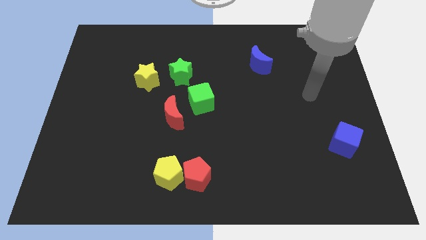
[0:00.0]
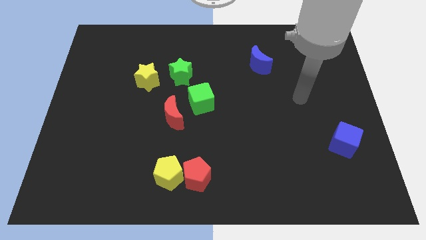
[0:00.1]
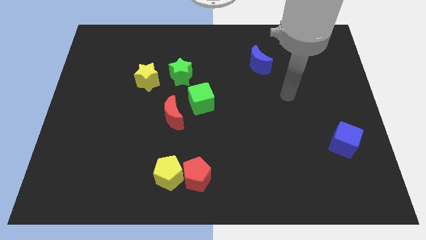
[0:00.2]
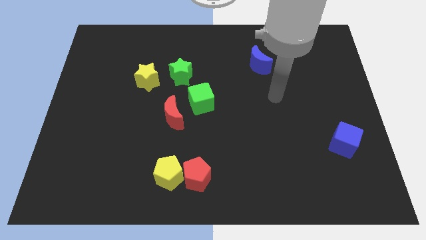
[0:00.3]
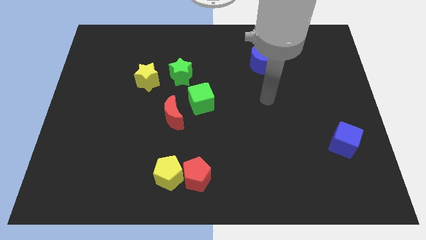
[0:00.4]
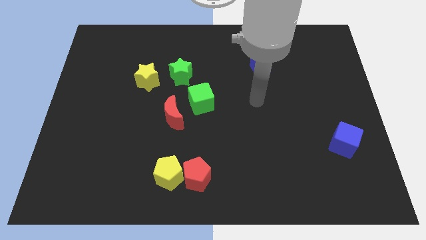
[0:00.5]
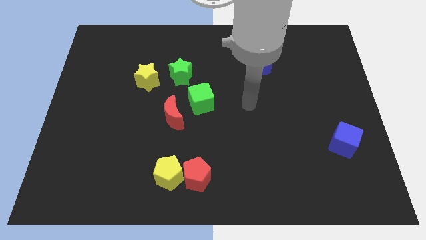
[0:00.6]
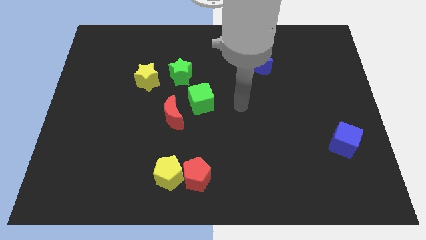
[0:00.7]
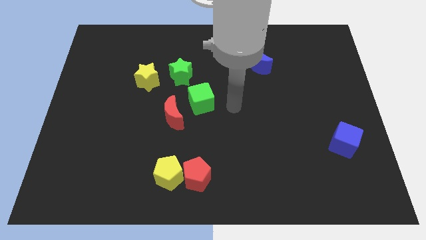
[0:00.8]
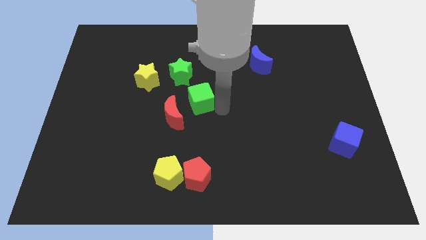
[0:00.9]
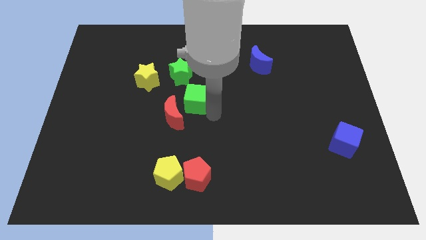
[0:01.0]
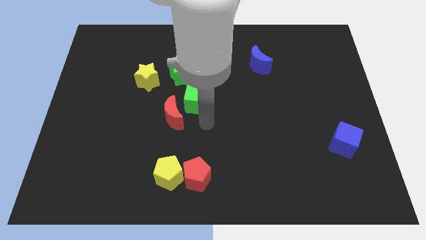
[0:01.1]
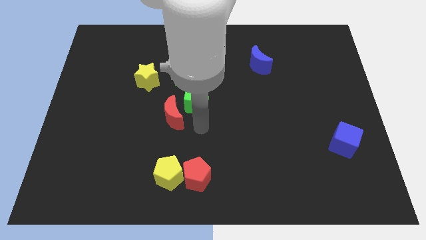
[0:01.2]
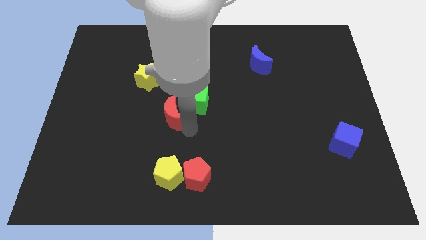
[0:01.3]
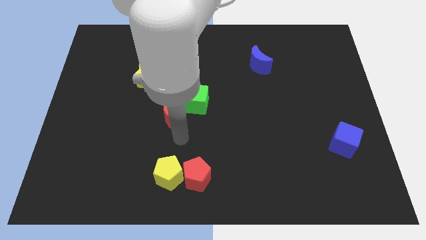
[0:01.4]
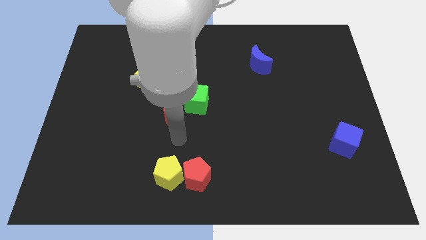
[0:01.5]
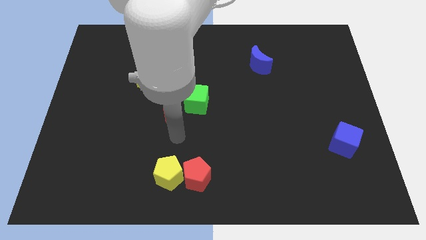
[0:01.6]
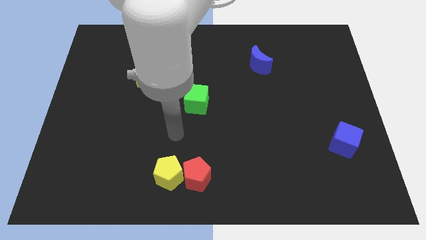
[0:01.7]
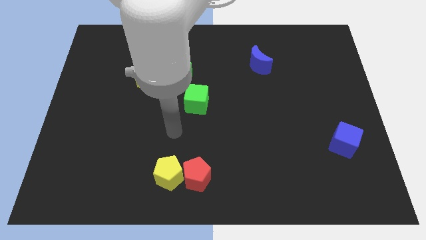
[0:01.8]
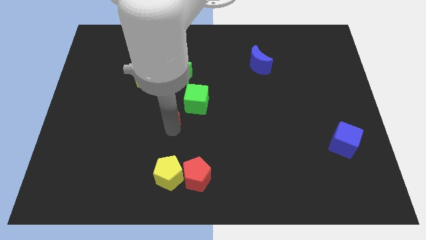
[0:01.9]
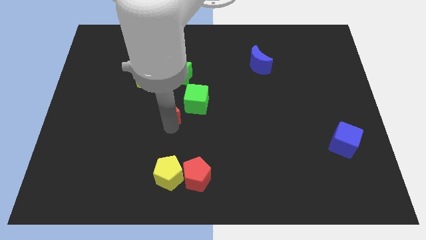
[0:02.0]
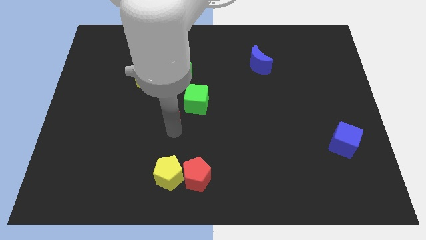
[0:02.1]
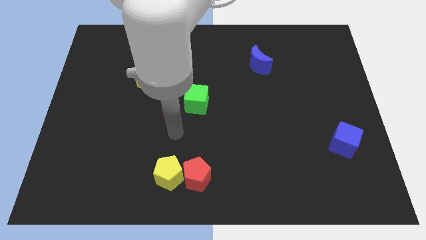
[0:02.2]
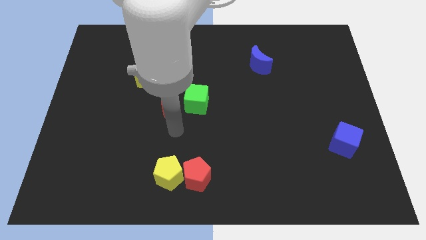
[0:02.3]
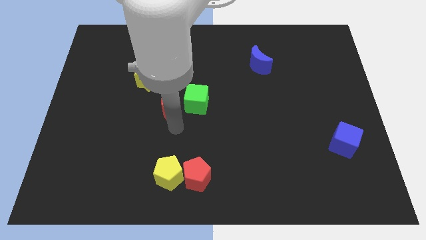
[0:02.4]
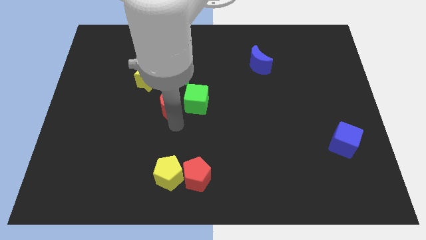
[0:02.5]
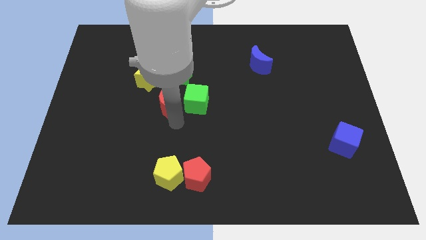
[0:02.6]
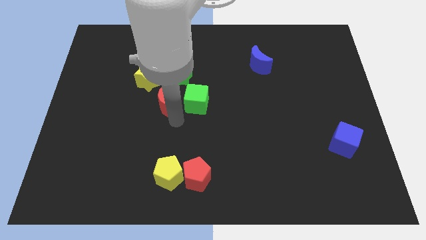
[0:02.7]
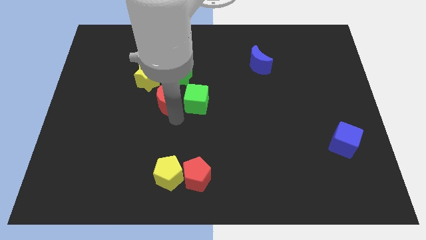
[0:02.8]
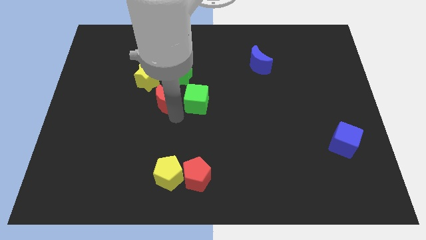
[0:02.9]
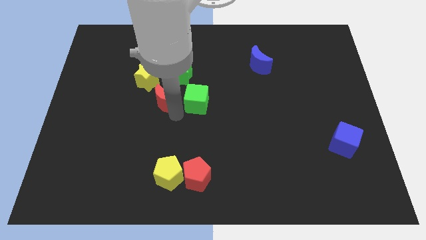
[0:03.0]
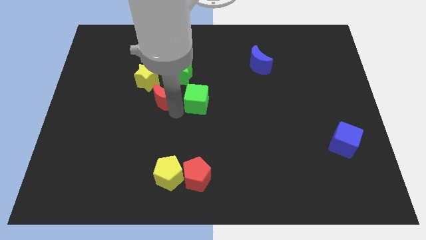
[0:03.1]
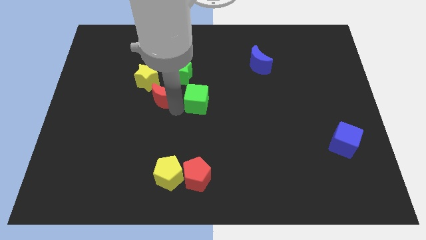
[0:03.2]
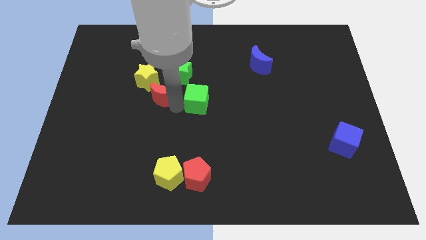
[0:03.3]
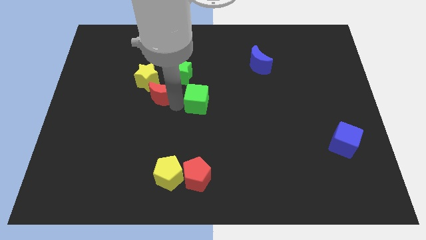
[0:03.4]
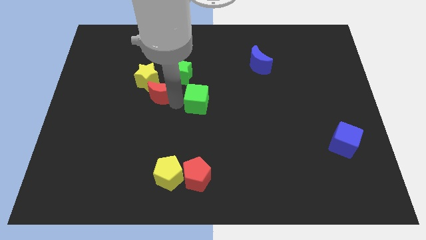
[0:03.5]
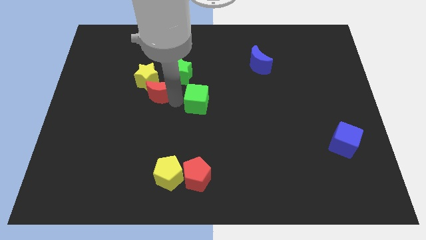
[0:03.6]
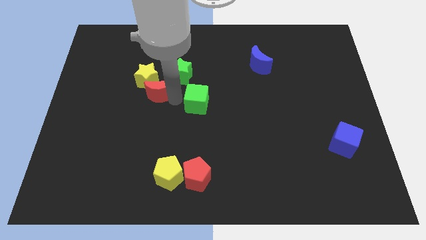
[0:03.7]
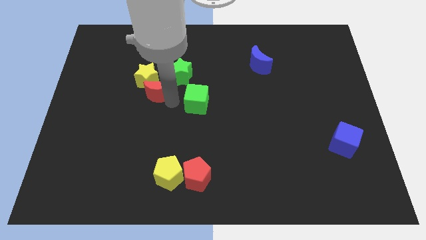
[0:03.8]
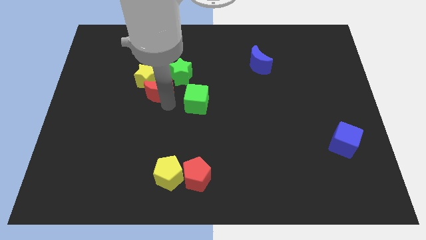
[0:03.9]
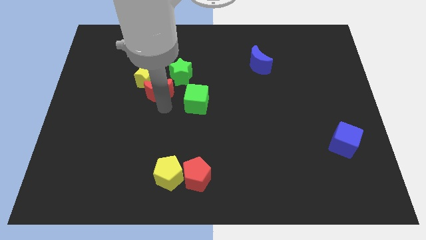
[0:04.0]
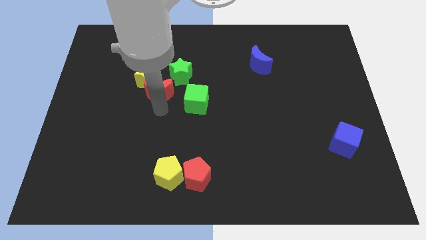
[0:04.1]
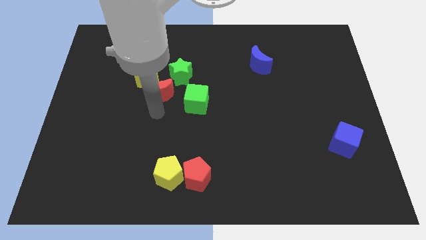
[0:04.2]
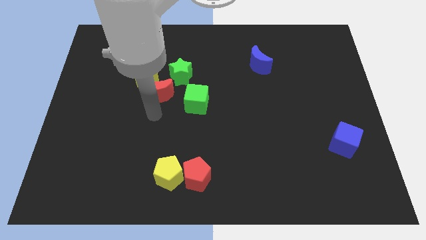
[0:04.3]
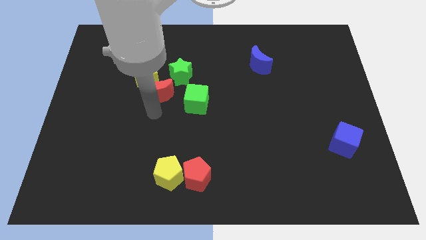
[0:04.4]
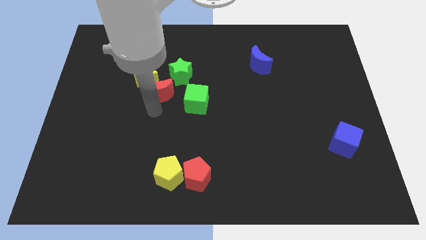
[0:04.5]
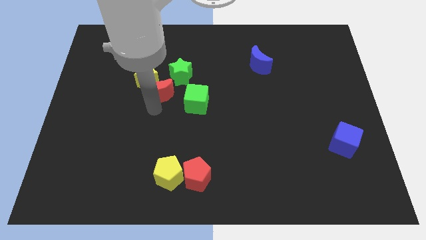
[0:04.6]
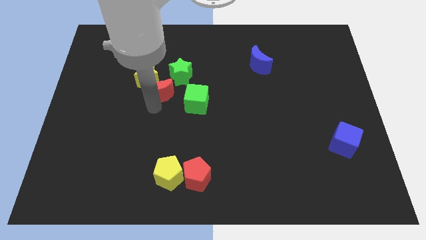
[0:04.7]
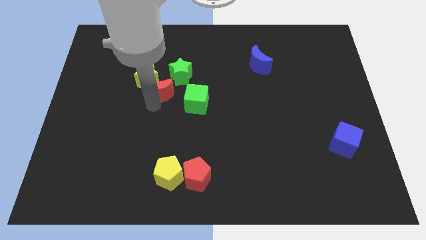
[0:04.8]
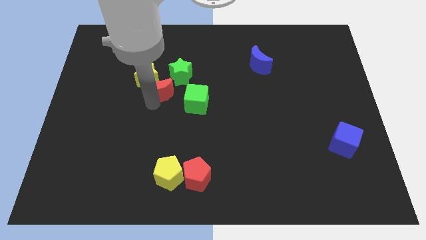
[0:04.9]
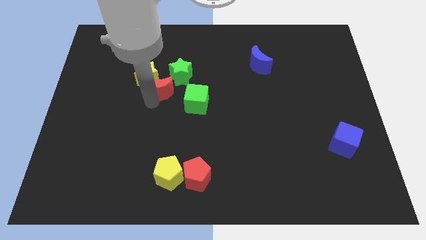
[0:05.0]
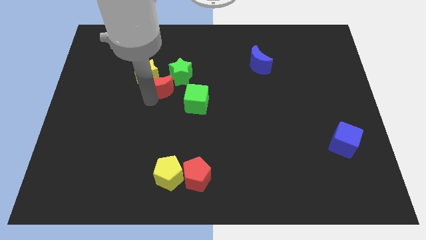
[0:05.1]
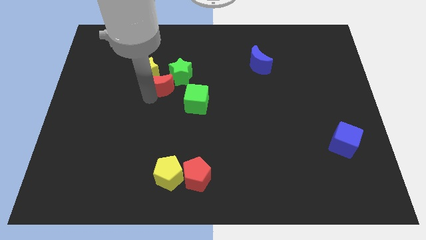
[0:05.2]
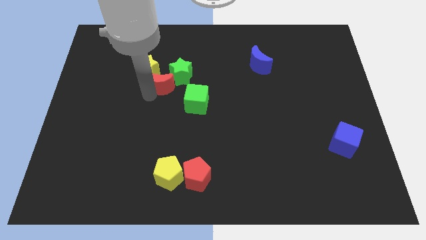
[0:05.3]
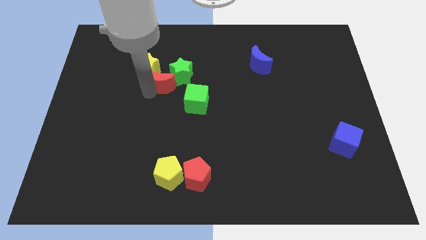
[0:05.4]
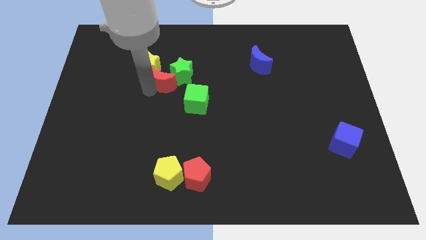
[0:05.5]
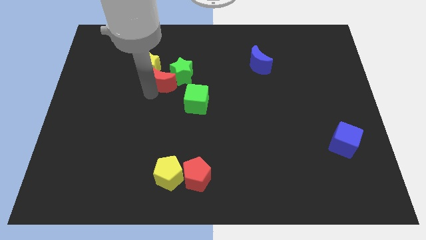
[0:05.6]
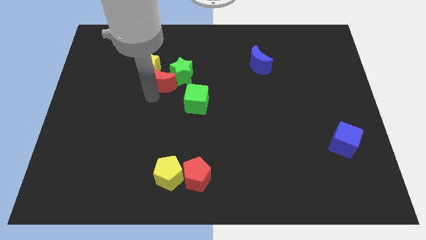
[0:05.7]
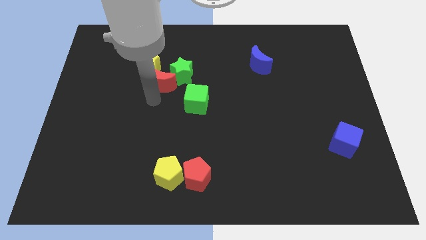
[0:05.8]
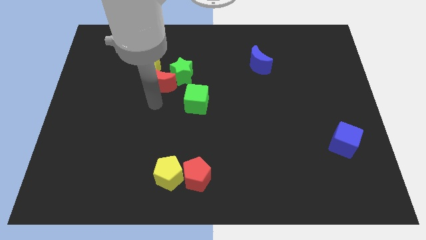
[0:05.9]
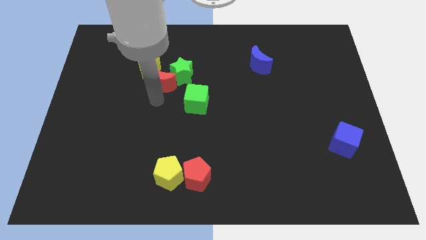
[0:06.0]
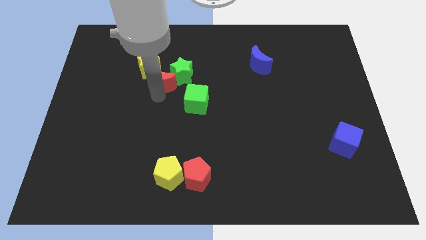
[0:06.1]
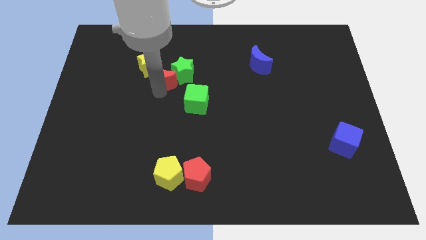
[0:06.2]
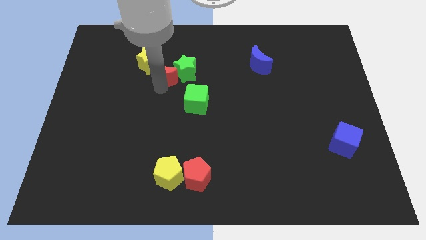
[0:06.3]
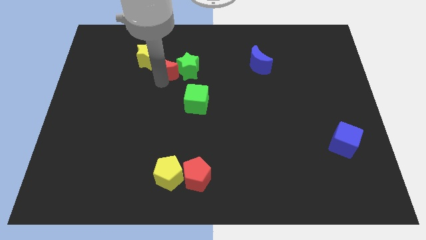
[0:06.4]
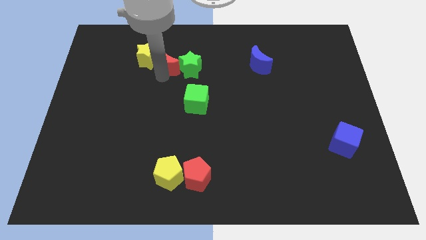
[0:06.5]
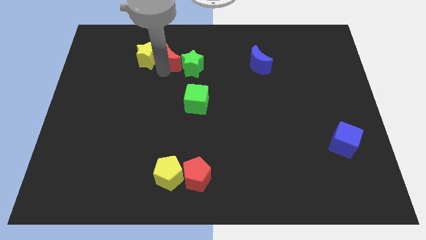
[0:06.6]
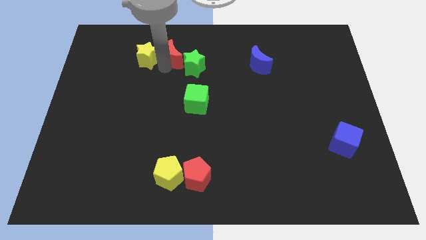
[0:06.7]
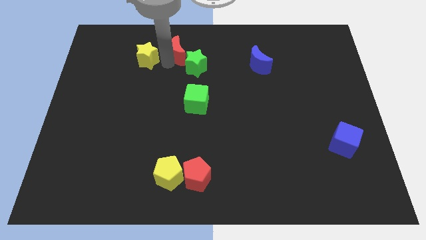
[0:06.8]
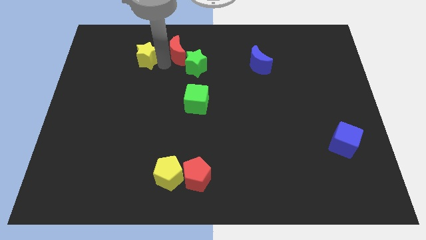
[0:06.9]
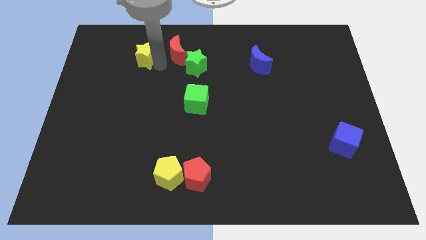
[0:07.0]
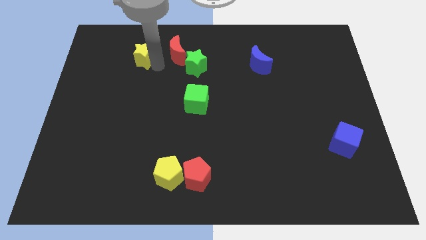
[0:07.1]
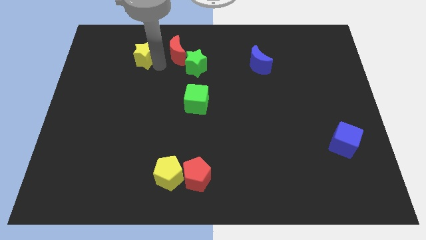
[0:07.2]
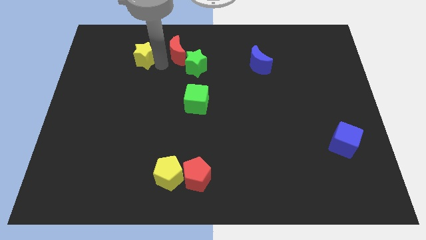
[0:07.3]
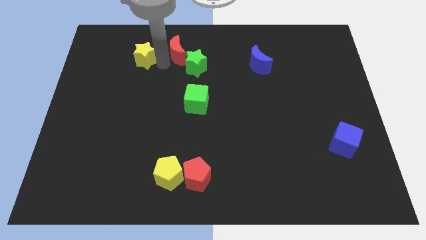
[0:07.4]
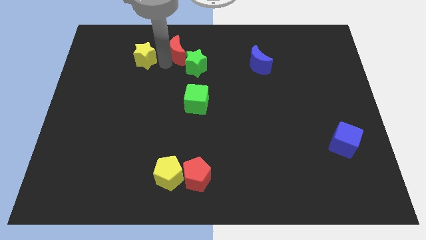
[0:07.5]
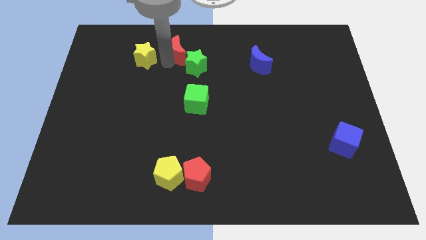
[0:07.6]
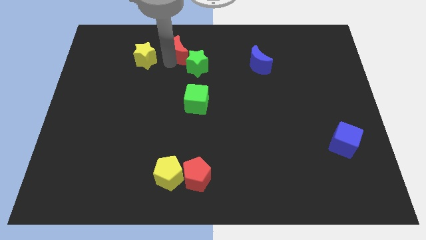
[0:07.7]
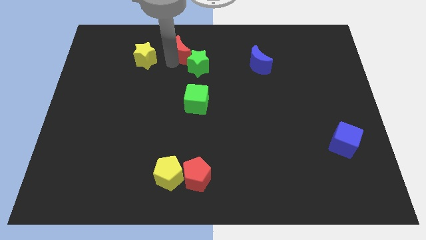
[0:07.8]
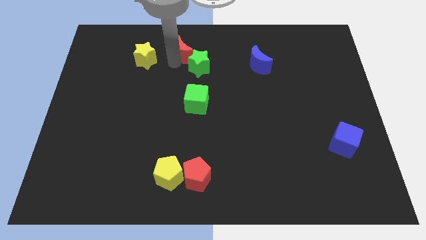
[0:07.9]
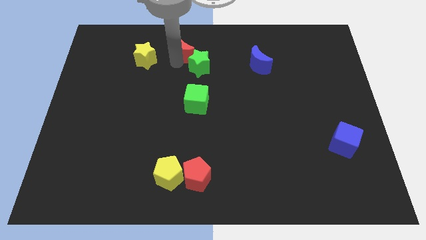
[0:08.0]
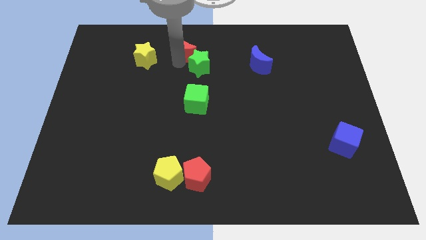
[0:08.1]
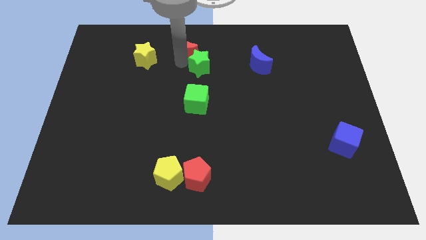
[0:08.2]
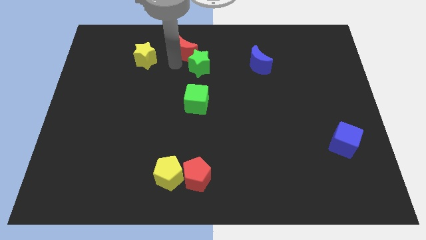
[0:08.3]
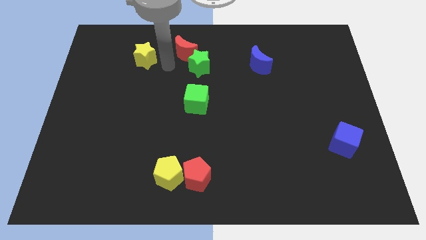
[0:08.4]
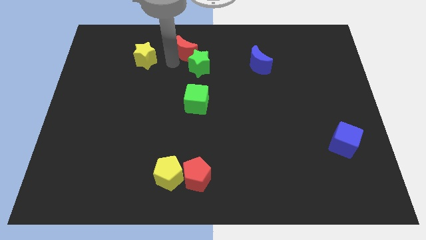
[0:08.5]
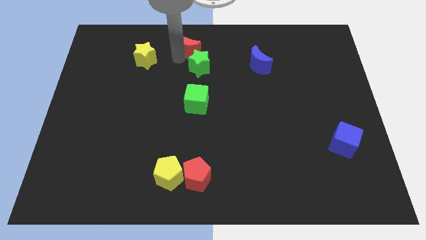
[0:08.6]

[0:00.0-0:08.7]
move the red moon to the top
